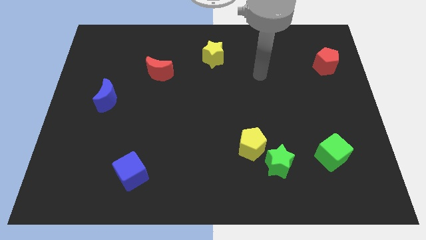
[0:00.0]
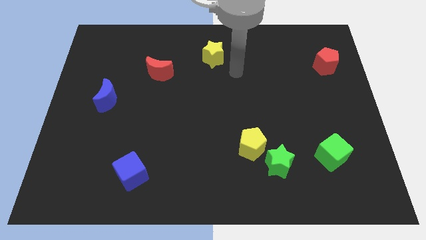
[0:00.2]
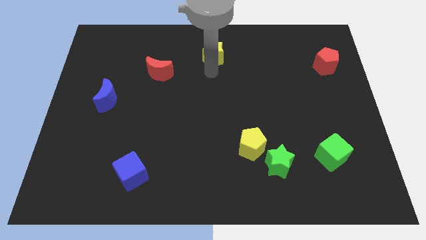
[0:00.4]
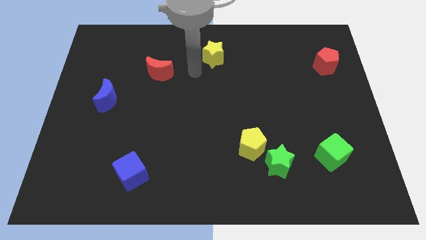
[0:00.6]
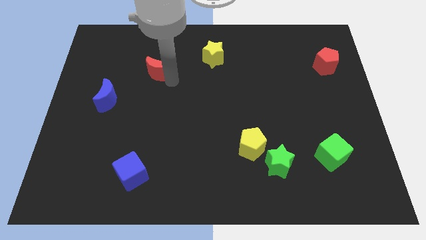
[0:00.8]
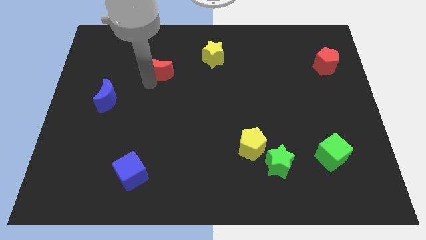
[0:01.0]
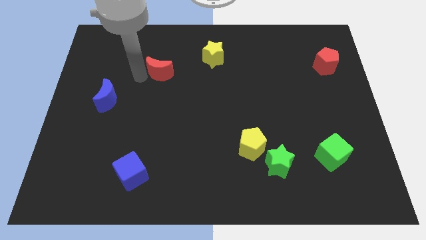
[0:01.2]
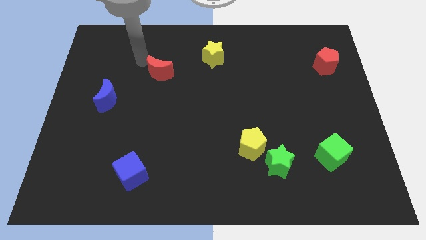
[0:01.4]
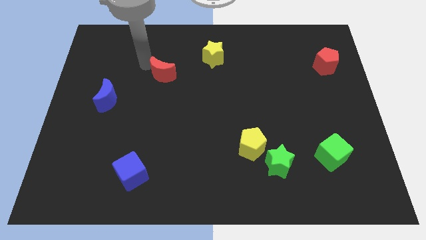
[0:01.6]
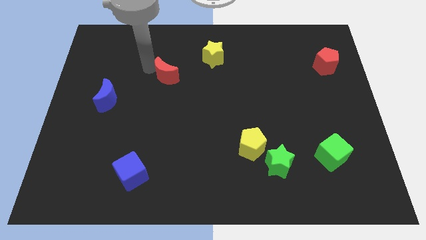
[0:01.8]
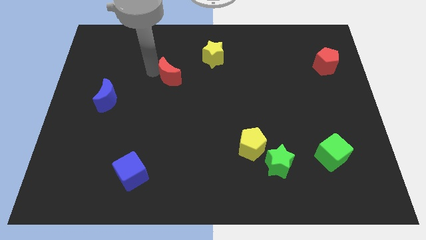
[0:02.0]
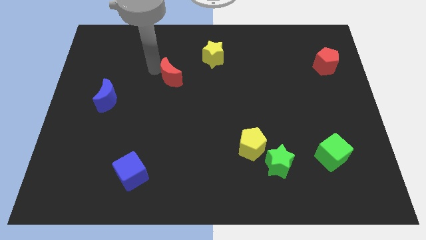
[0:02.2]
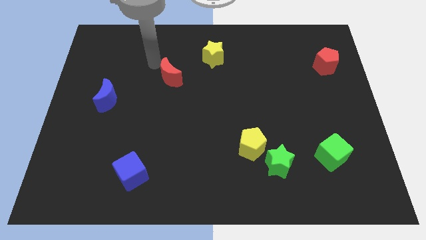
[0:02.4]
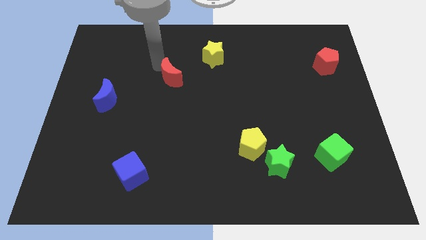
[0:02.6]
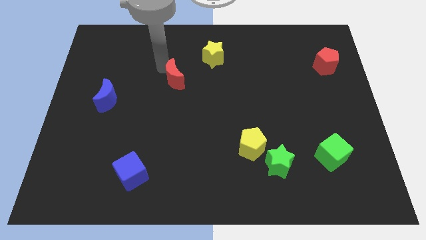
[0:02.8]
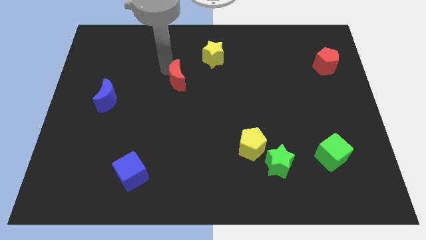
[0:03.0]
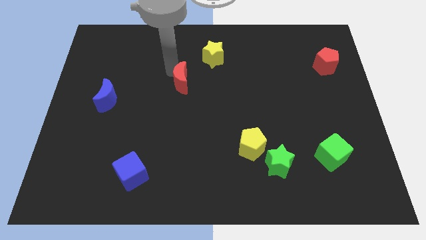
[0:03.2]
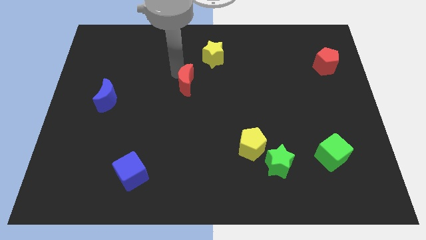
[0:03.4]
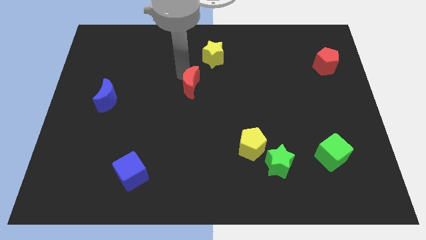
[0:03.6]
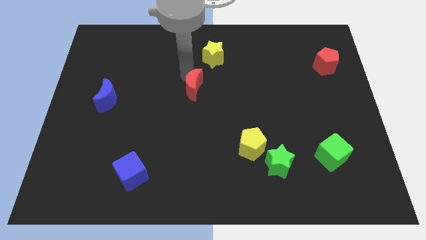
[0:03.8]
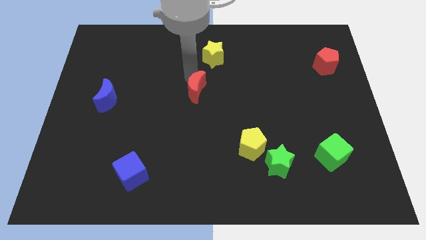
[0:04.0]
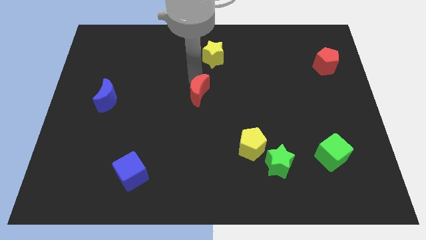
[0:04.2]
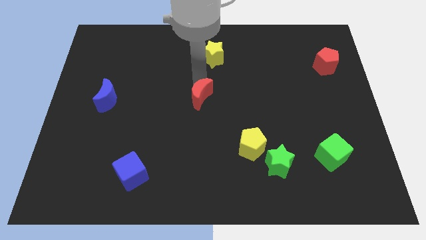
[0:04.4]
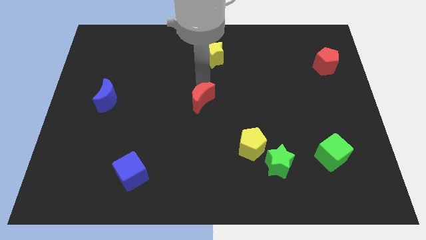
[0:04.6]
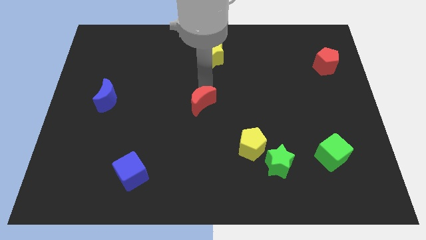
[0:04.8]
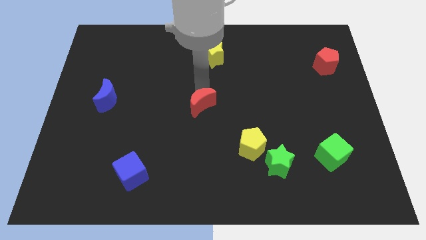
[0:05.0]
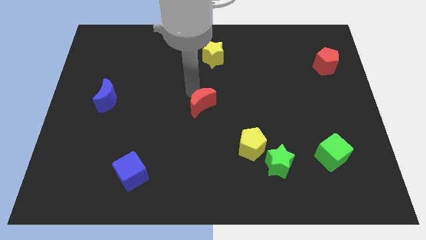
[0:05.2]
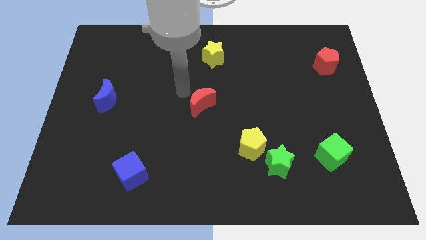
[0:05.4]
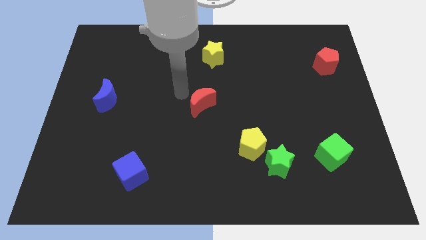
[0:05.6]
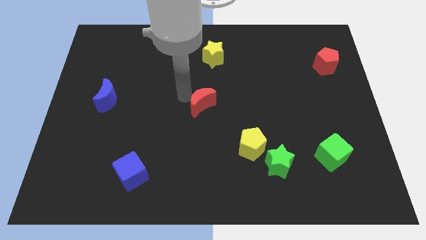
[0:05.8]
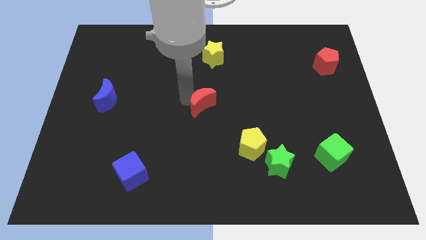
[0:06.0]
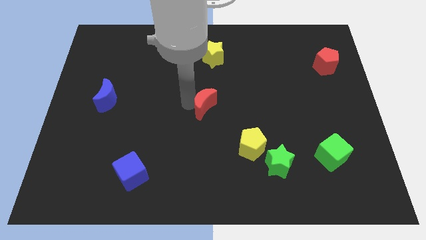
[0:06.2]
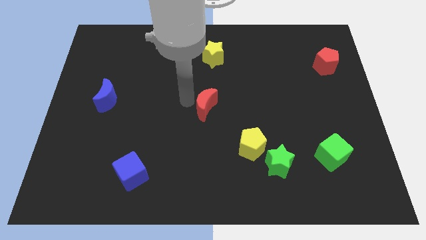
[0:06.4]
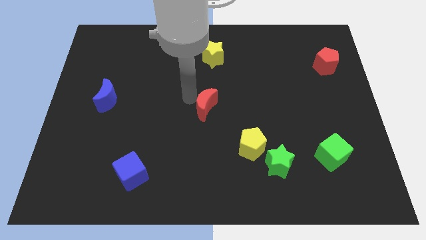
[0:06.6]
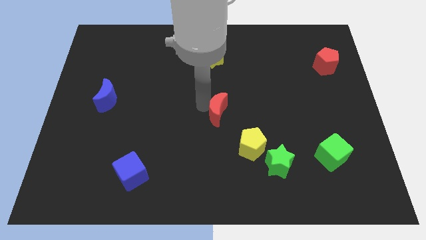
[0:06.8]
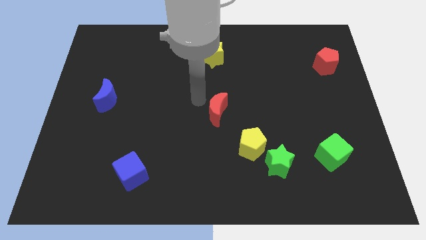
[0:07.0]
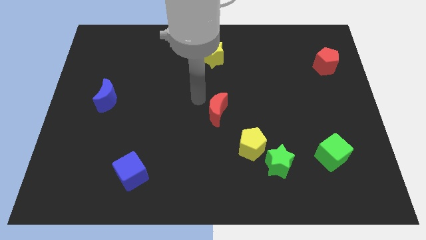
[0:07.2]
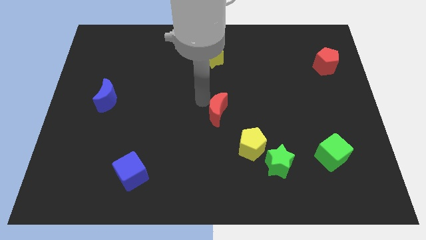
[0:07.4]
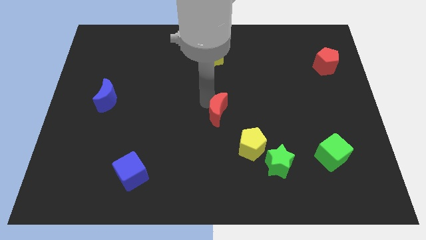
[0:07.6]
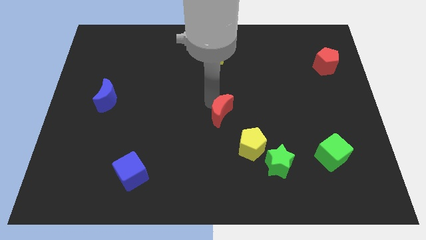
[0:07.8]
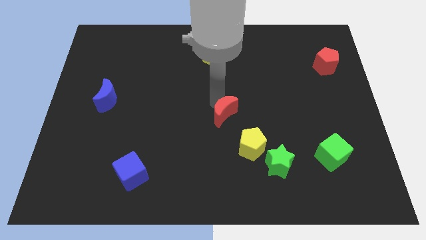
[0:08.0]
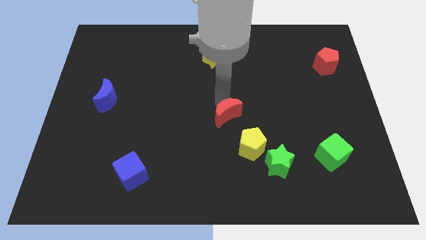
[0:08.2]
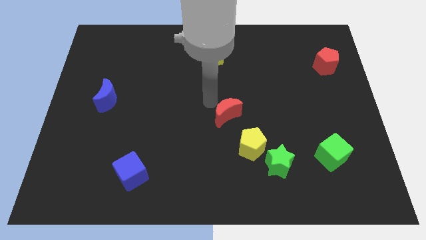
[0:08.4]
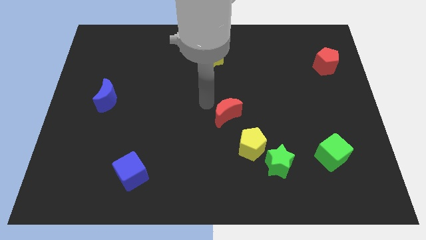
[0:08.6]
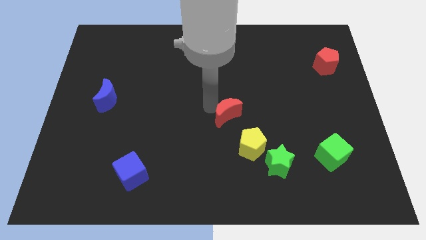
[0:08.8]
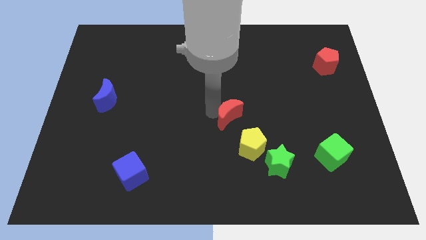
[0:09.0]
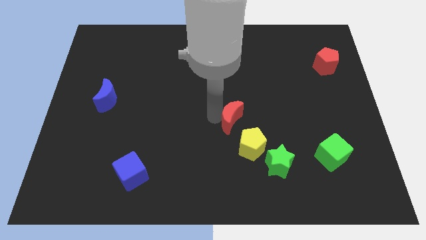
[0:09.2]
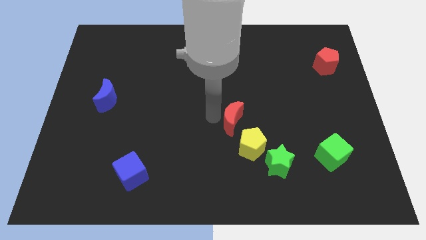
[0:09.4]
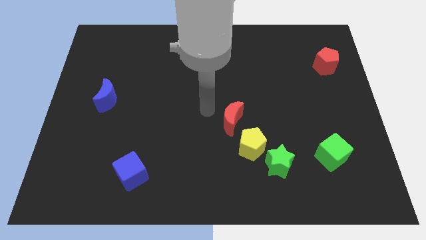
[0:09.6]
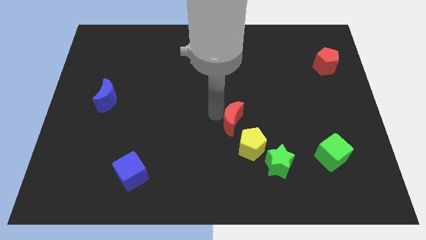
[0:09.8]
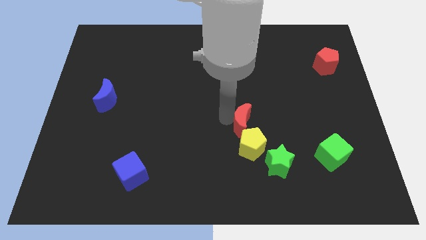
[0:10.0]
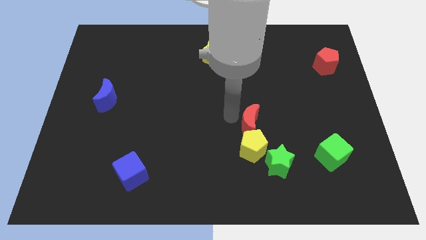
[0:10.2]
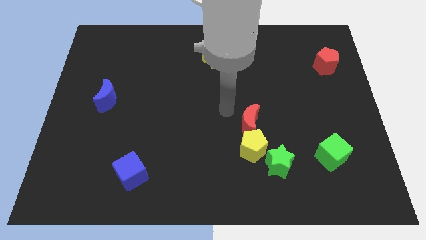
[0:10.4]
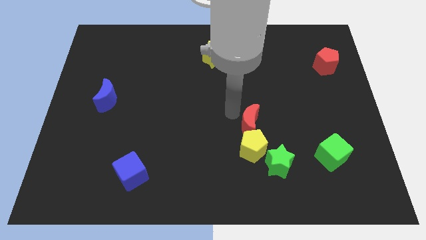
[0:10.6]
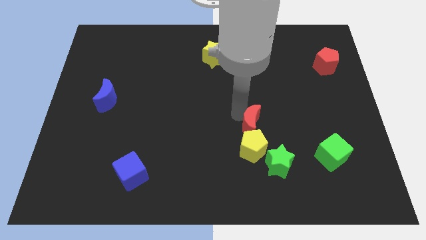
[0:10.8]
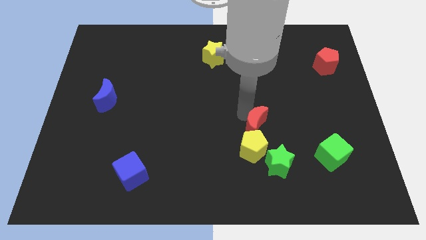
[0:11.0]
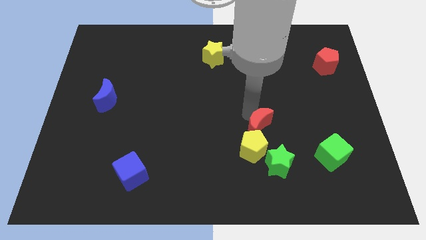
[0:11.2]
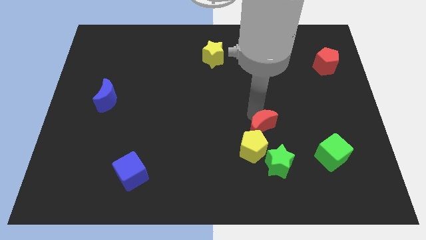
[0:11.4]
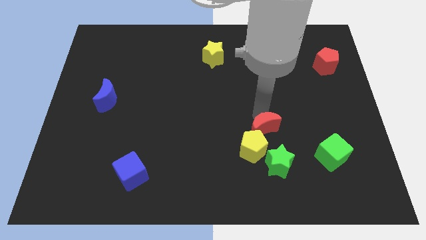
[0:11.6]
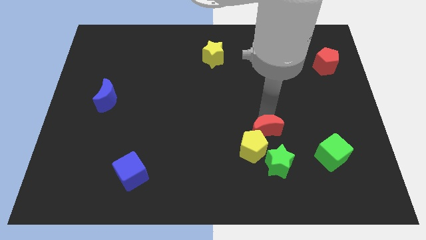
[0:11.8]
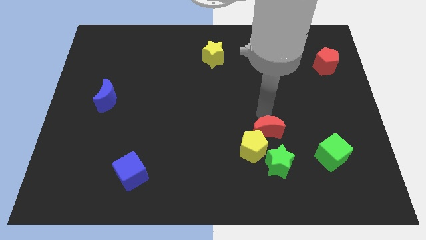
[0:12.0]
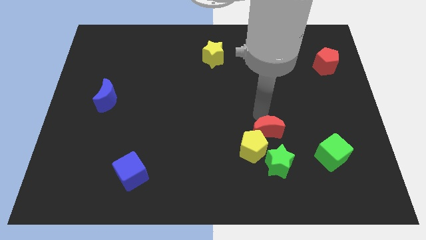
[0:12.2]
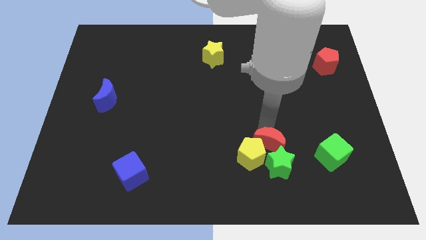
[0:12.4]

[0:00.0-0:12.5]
put the red moon next to the green star

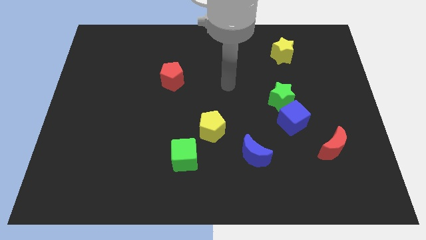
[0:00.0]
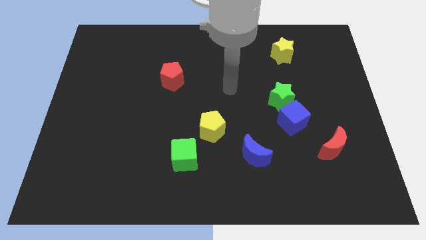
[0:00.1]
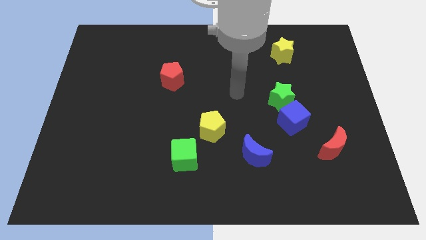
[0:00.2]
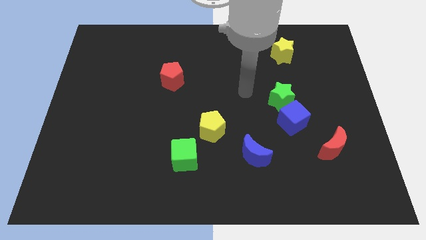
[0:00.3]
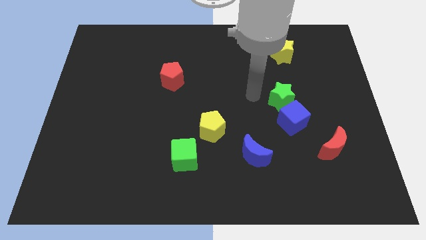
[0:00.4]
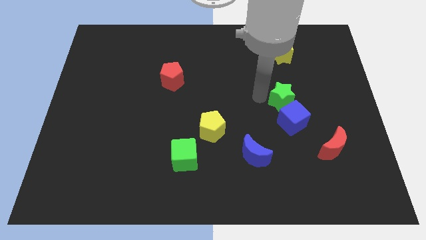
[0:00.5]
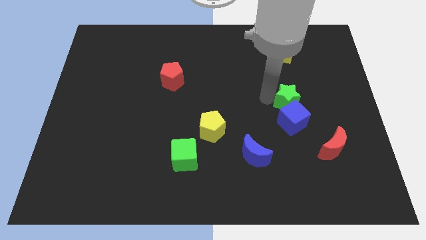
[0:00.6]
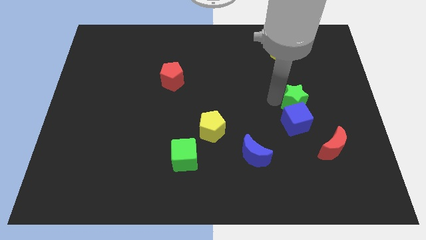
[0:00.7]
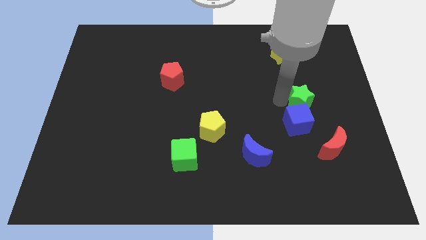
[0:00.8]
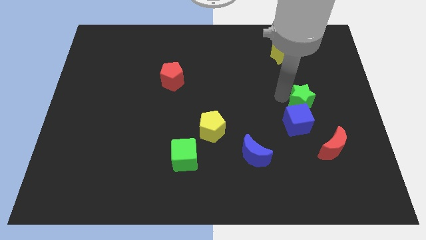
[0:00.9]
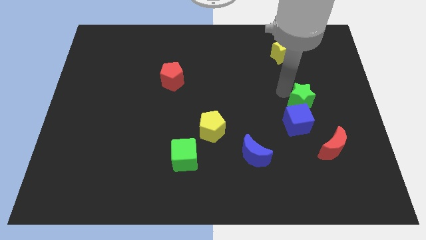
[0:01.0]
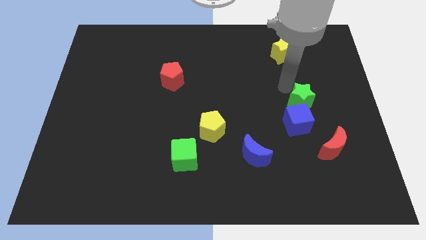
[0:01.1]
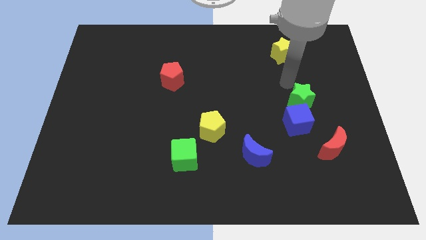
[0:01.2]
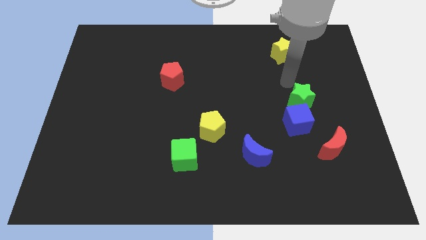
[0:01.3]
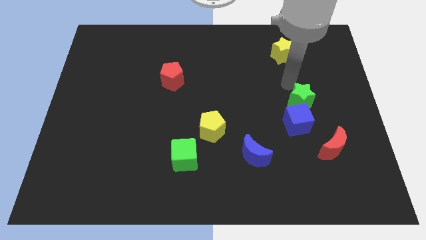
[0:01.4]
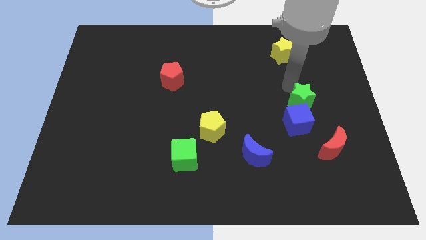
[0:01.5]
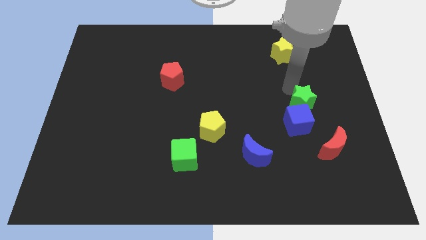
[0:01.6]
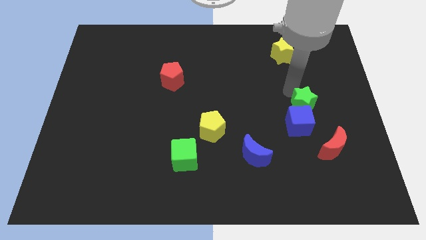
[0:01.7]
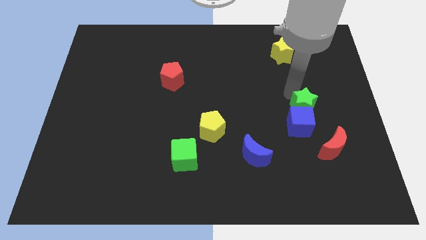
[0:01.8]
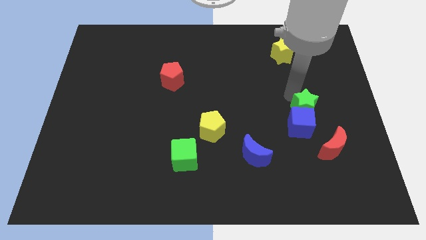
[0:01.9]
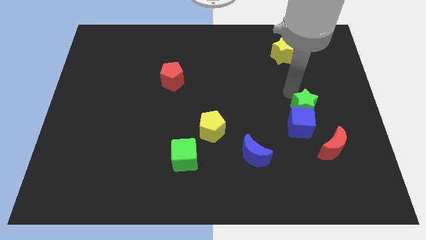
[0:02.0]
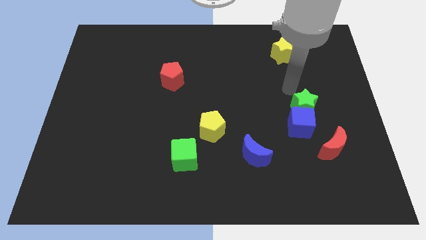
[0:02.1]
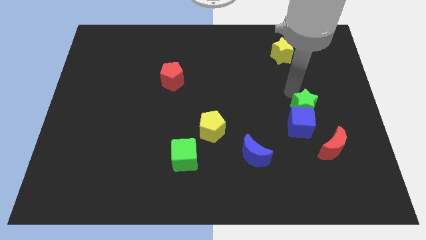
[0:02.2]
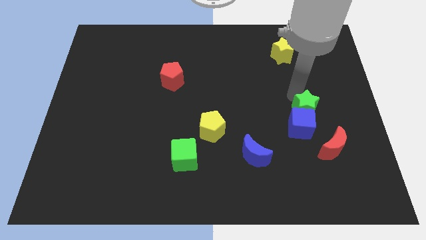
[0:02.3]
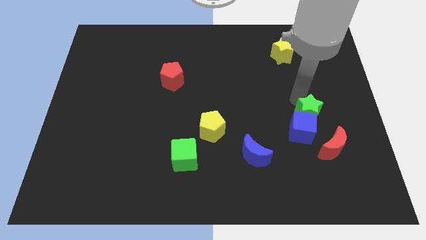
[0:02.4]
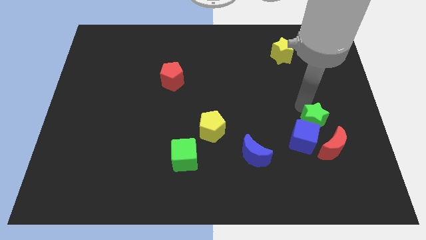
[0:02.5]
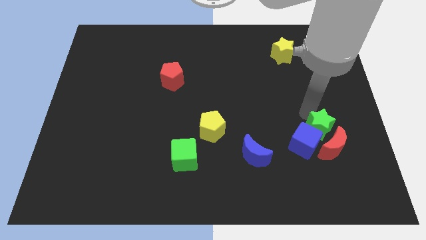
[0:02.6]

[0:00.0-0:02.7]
move the green star close to the red moon
